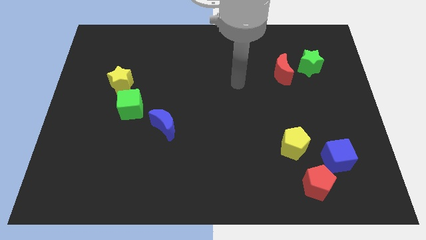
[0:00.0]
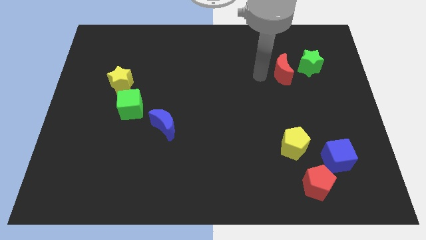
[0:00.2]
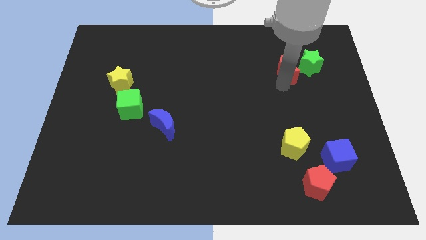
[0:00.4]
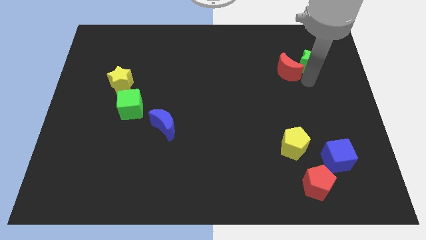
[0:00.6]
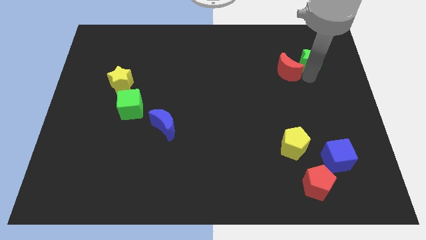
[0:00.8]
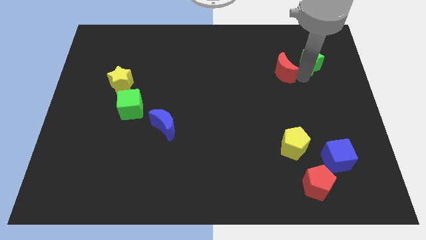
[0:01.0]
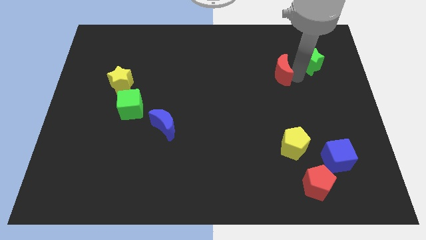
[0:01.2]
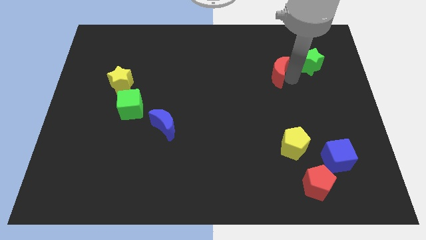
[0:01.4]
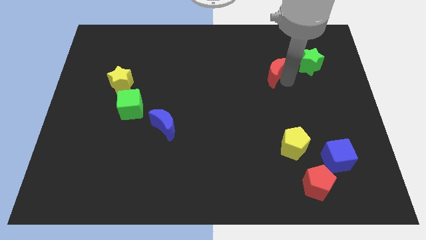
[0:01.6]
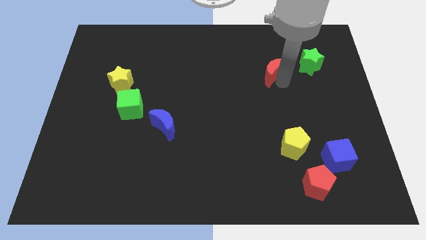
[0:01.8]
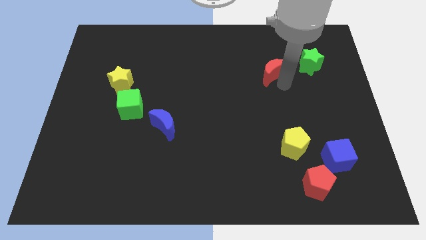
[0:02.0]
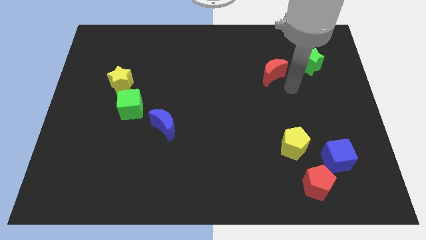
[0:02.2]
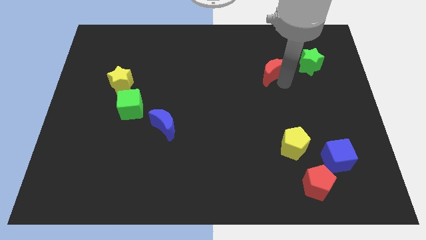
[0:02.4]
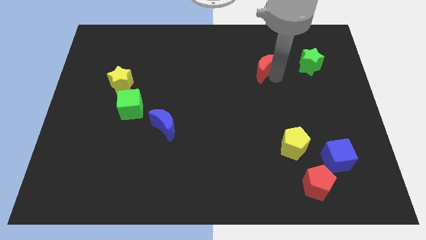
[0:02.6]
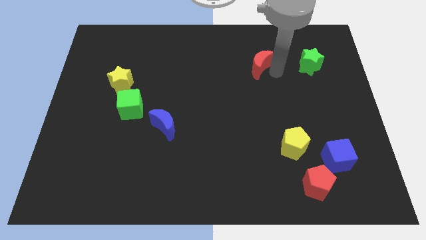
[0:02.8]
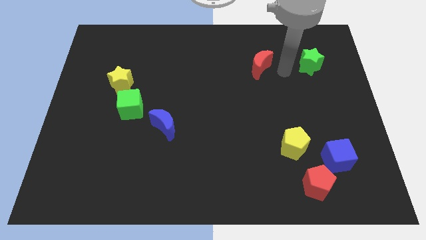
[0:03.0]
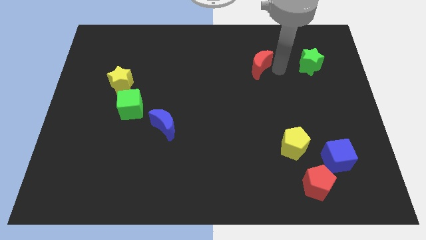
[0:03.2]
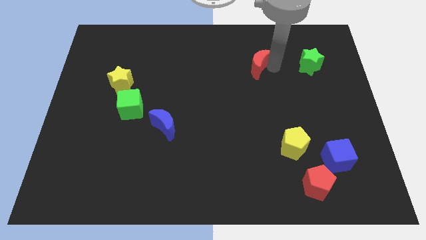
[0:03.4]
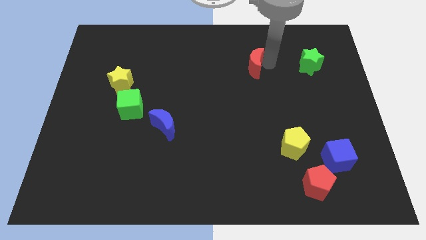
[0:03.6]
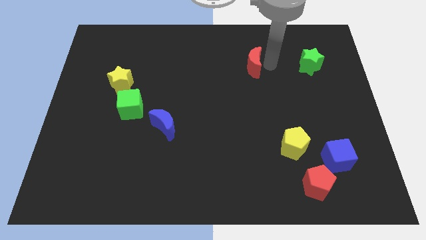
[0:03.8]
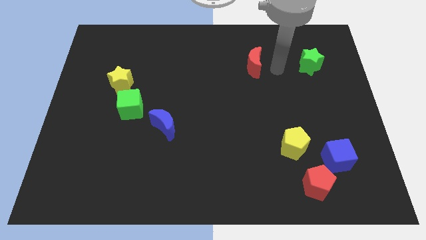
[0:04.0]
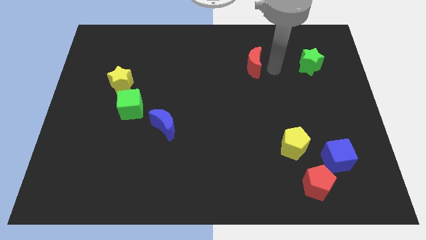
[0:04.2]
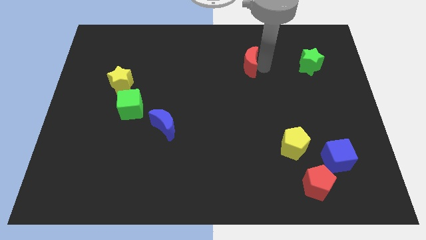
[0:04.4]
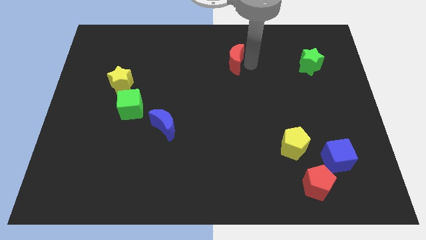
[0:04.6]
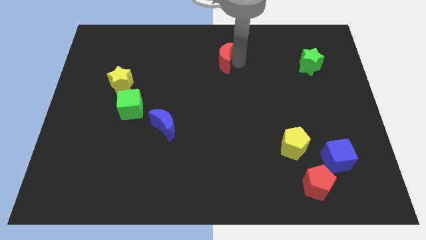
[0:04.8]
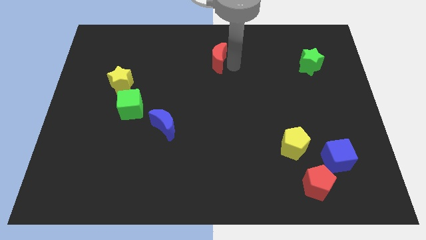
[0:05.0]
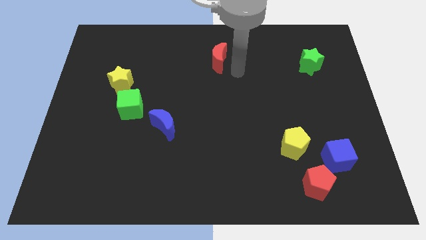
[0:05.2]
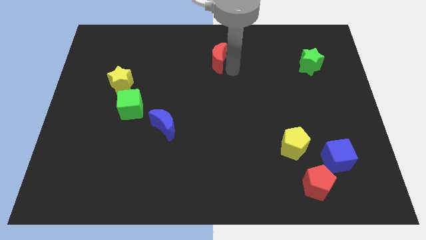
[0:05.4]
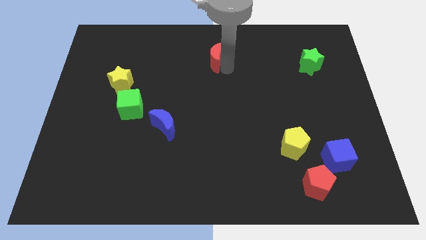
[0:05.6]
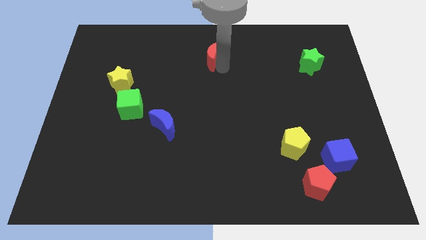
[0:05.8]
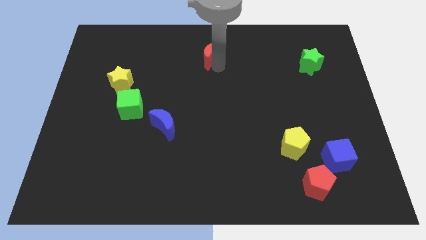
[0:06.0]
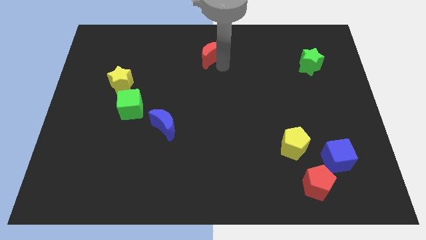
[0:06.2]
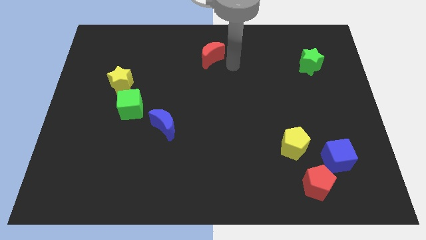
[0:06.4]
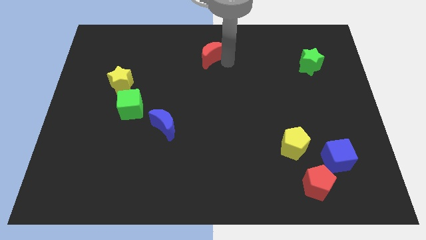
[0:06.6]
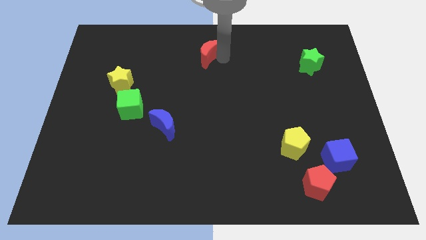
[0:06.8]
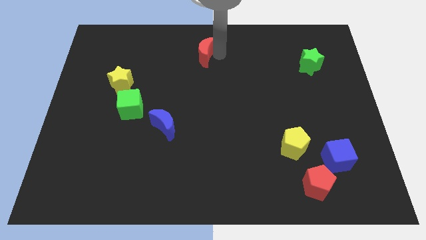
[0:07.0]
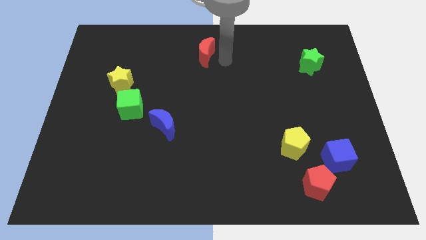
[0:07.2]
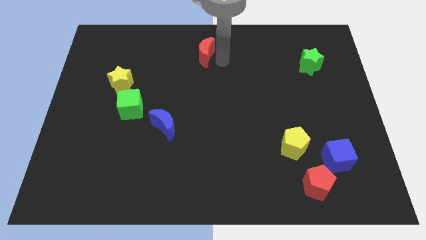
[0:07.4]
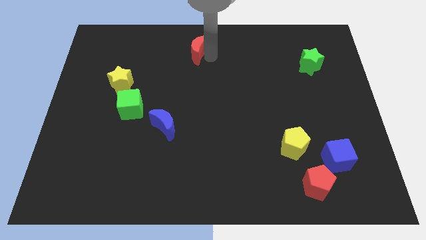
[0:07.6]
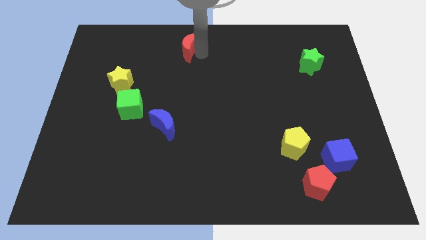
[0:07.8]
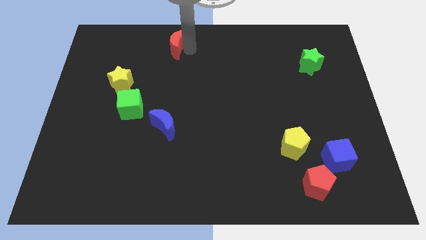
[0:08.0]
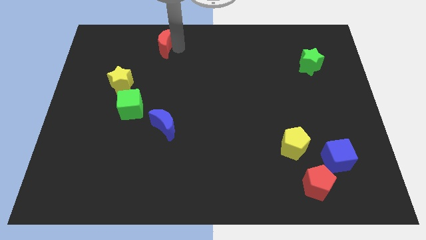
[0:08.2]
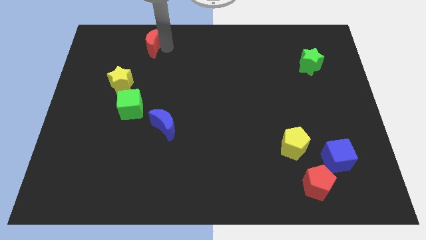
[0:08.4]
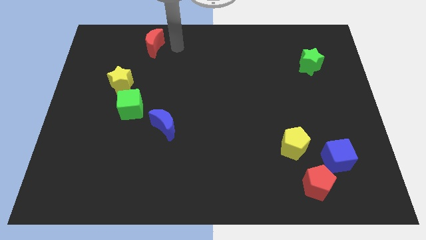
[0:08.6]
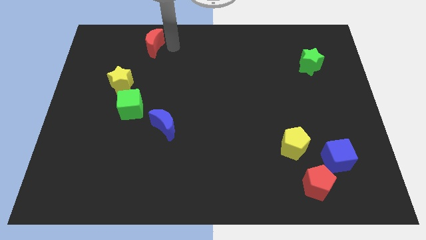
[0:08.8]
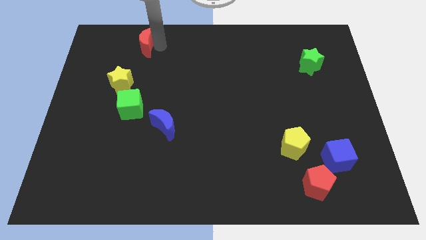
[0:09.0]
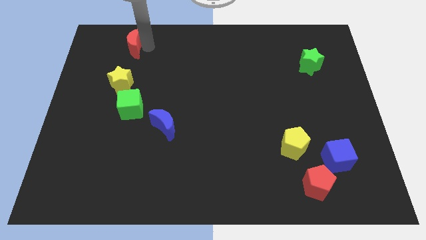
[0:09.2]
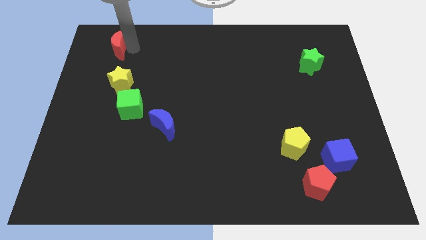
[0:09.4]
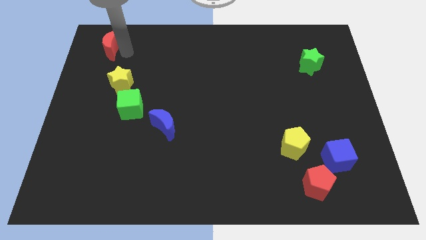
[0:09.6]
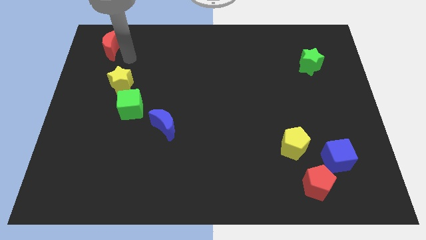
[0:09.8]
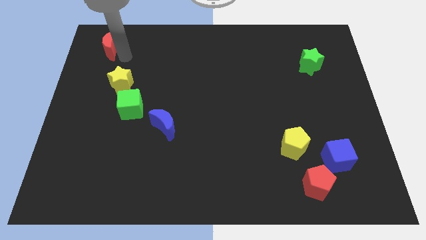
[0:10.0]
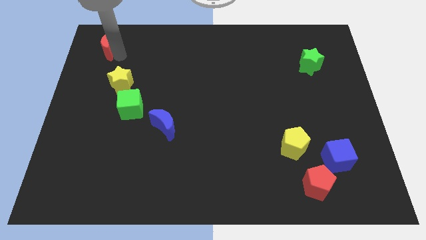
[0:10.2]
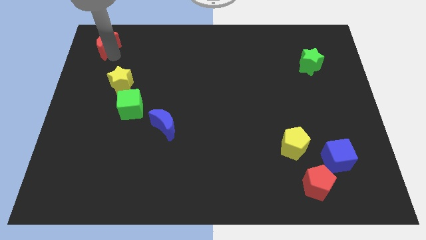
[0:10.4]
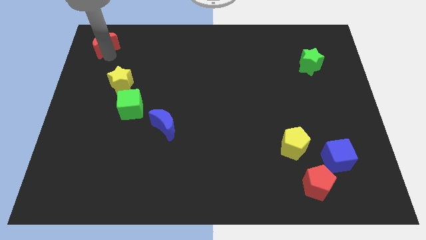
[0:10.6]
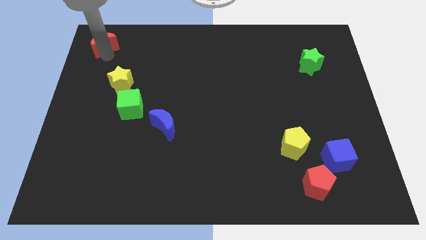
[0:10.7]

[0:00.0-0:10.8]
put the red moon to the top left corner

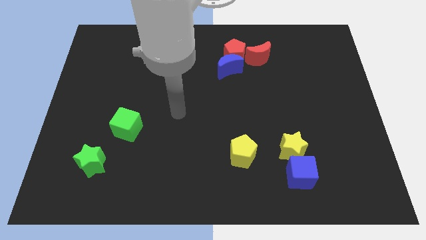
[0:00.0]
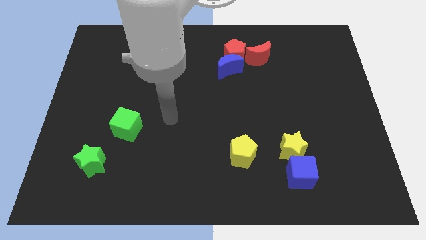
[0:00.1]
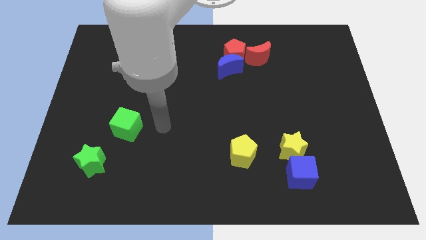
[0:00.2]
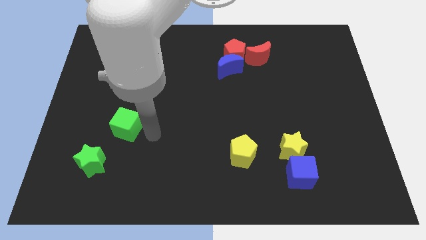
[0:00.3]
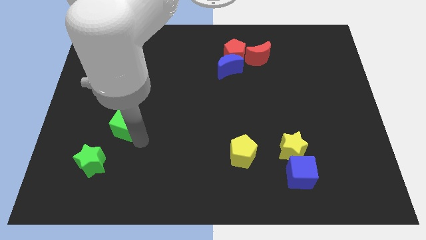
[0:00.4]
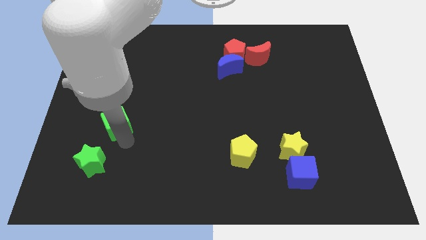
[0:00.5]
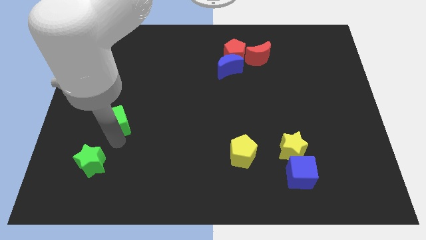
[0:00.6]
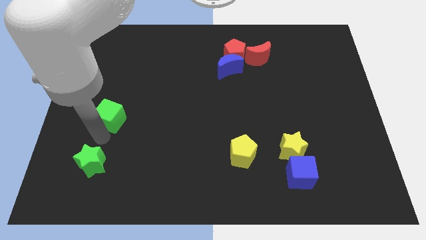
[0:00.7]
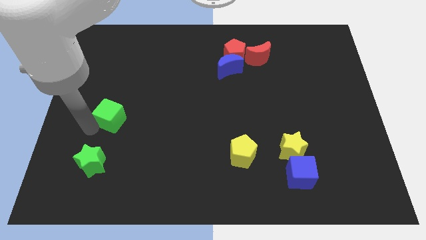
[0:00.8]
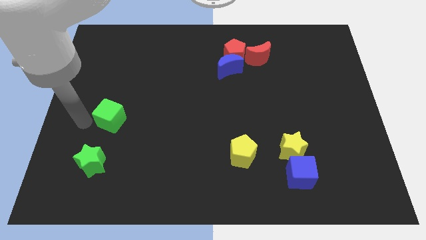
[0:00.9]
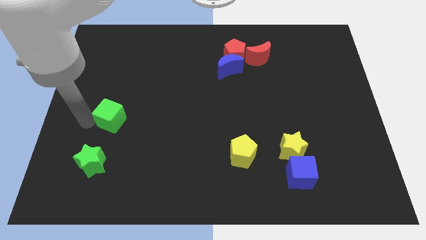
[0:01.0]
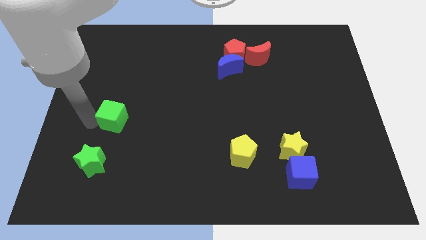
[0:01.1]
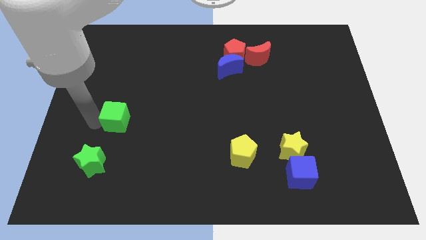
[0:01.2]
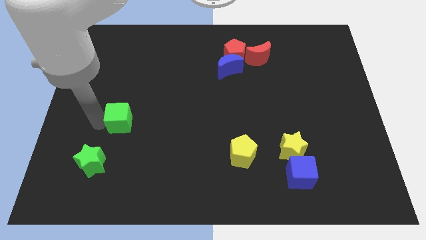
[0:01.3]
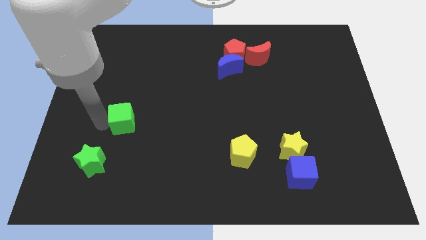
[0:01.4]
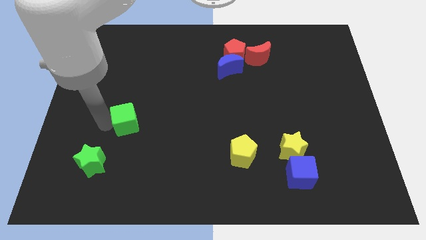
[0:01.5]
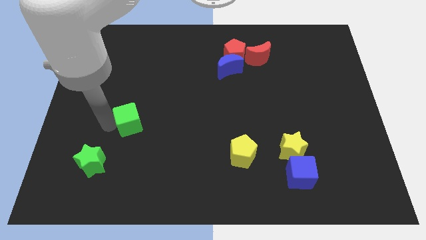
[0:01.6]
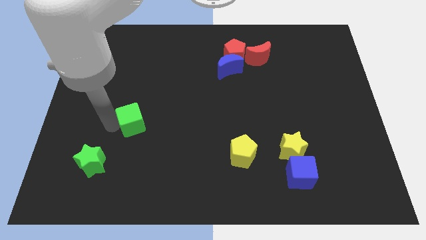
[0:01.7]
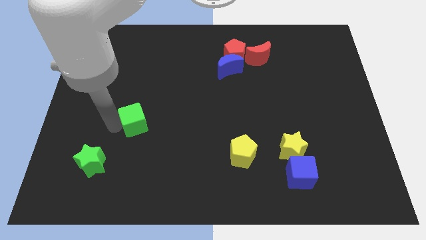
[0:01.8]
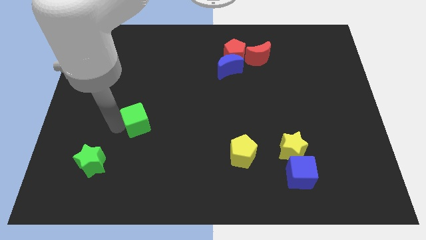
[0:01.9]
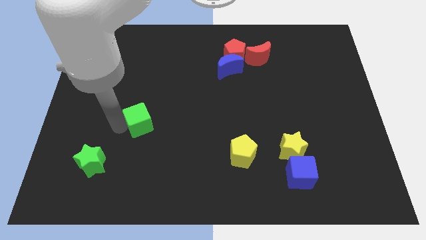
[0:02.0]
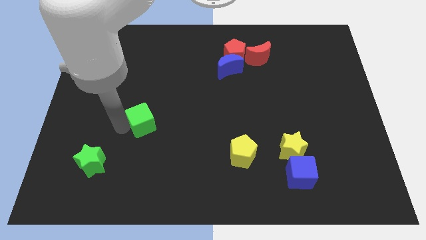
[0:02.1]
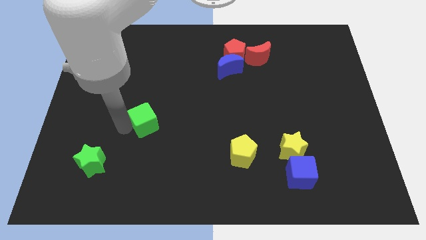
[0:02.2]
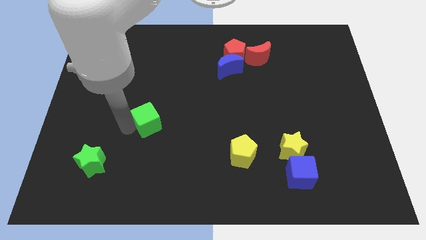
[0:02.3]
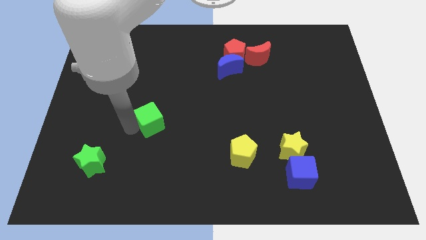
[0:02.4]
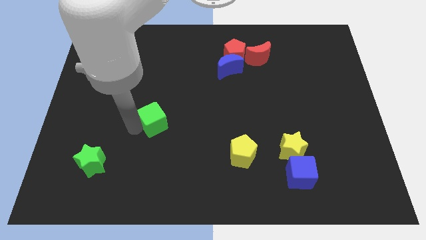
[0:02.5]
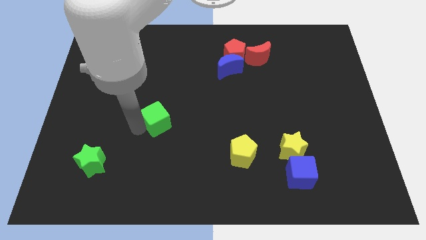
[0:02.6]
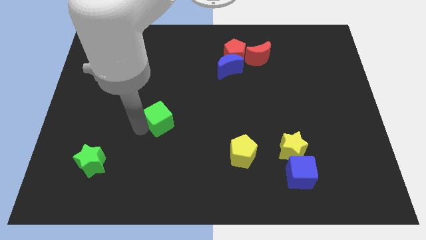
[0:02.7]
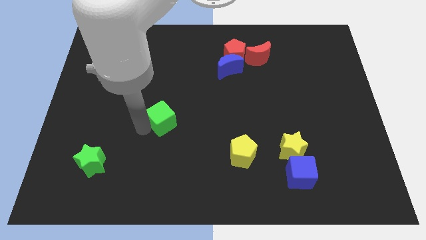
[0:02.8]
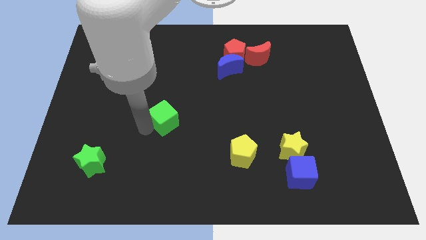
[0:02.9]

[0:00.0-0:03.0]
push the green cube to the middle of the board
